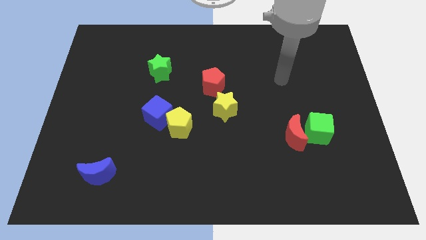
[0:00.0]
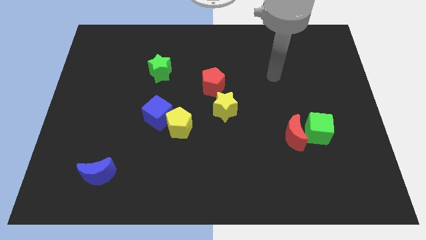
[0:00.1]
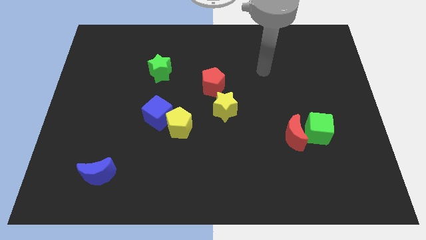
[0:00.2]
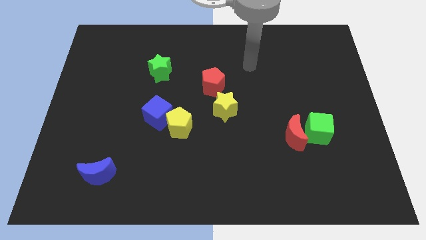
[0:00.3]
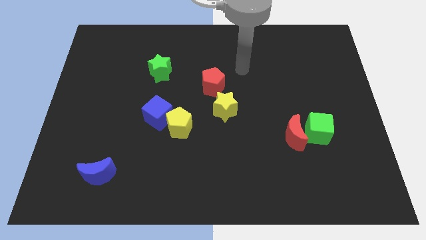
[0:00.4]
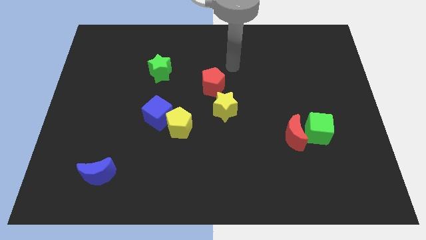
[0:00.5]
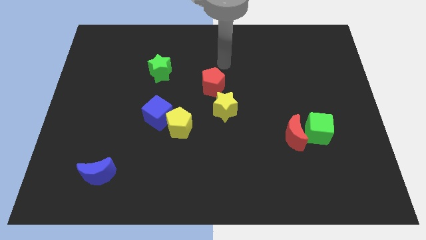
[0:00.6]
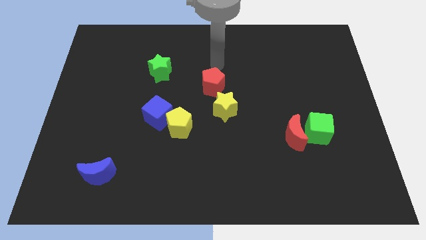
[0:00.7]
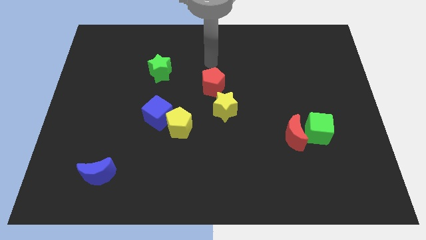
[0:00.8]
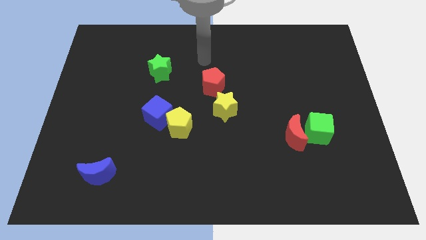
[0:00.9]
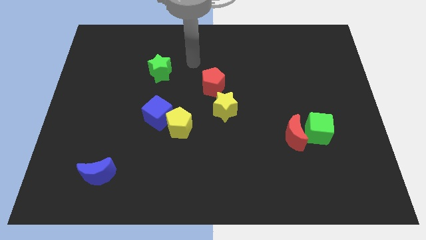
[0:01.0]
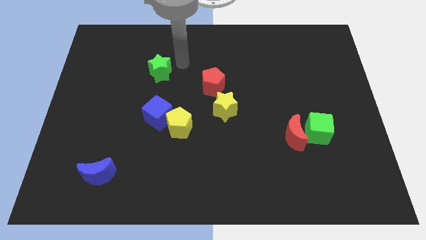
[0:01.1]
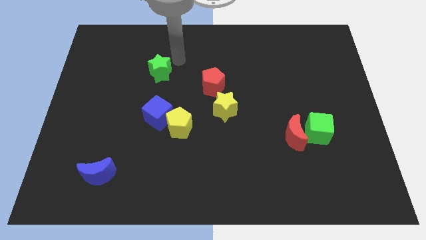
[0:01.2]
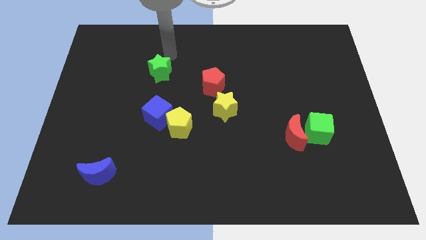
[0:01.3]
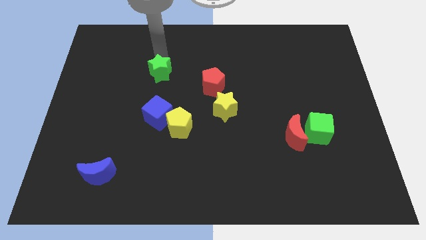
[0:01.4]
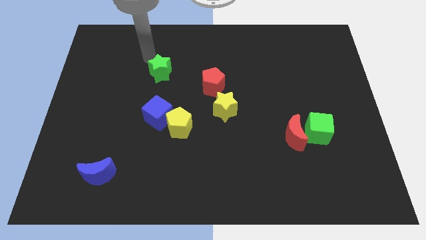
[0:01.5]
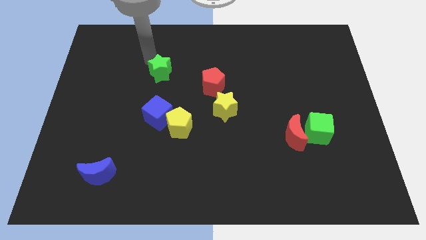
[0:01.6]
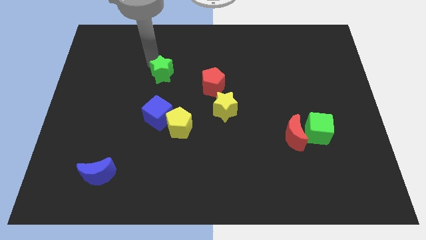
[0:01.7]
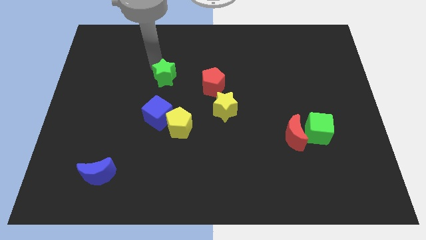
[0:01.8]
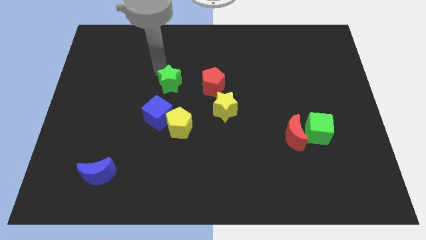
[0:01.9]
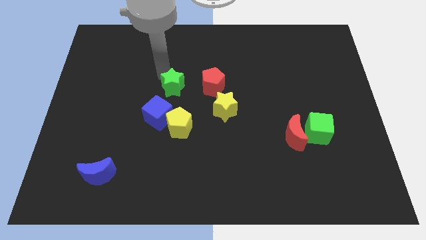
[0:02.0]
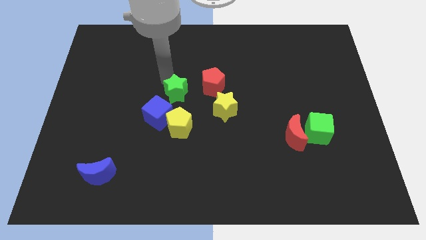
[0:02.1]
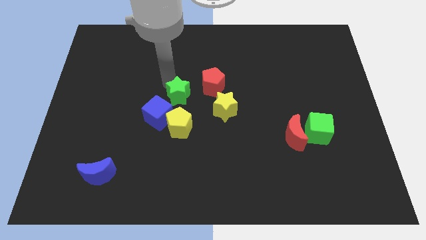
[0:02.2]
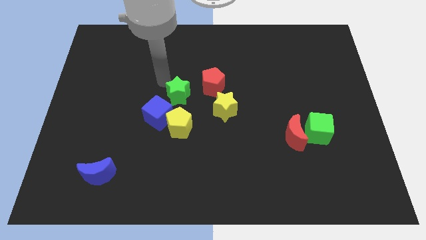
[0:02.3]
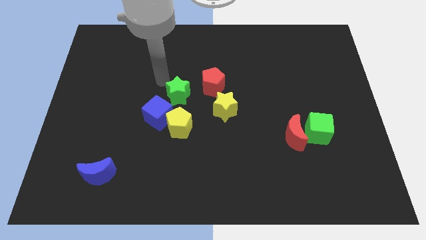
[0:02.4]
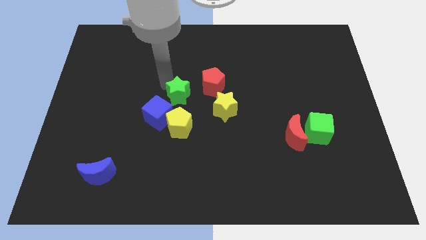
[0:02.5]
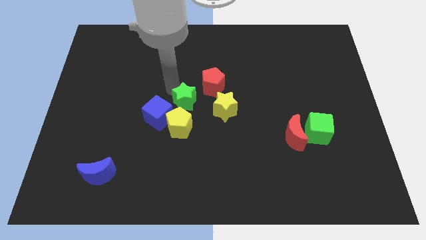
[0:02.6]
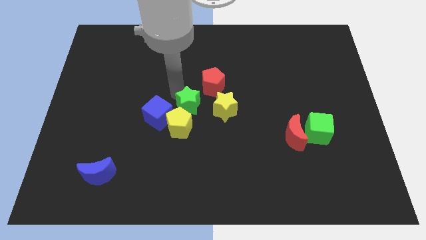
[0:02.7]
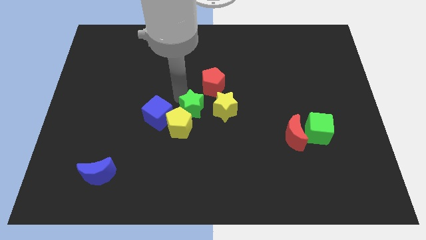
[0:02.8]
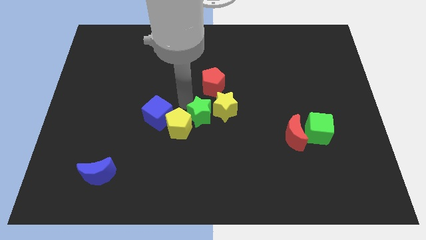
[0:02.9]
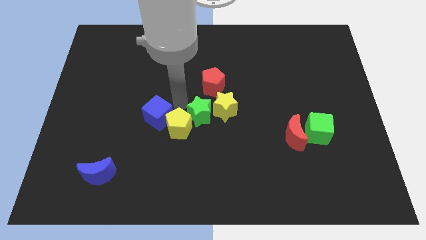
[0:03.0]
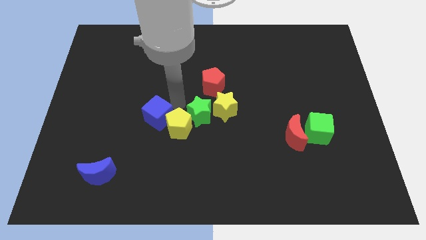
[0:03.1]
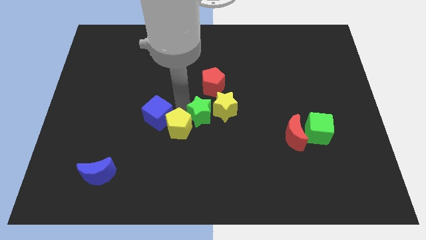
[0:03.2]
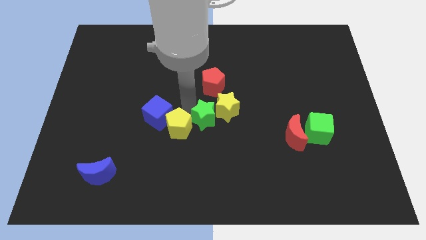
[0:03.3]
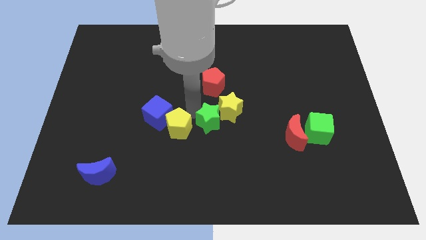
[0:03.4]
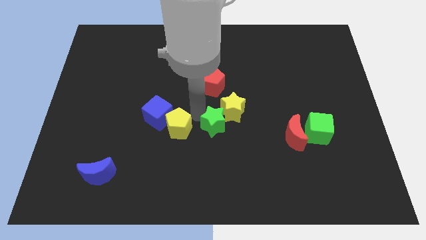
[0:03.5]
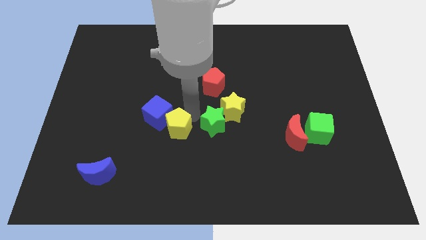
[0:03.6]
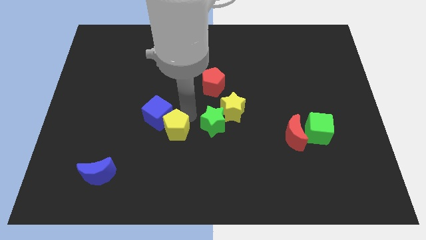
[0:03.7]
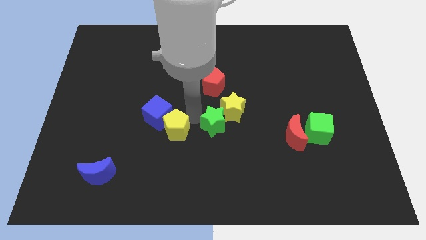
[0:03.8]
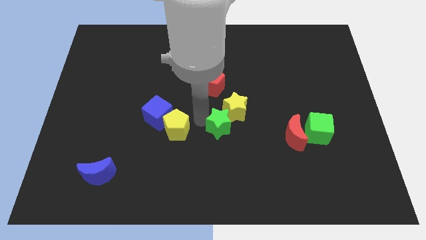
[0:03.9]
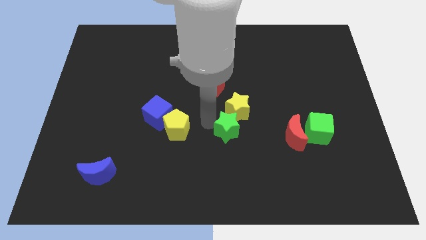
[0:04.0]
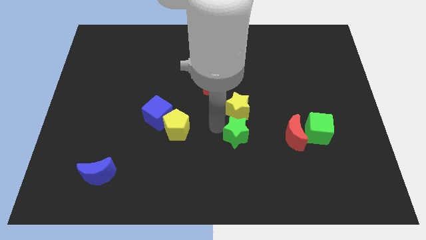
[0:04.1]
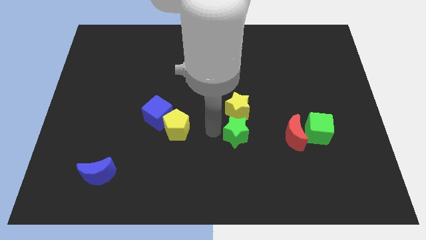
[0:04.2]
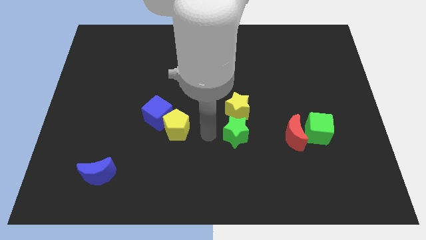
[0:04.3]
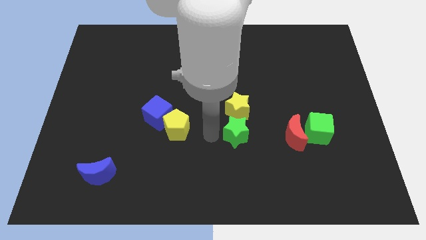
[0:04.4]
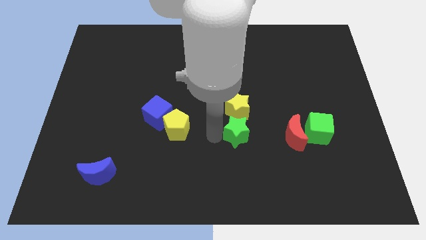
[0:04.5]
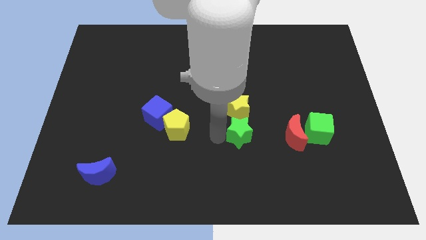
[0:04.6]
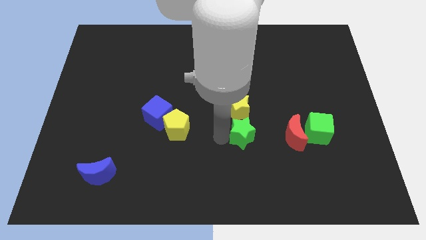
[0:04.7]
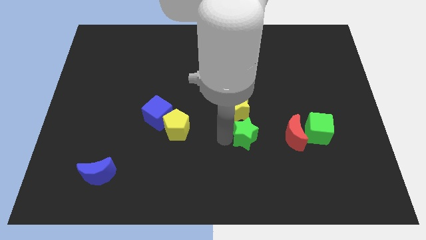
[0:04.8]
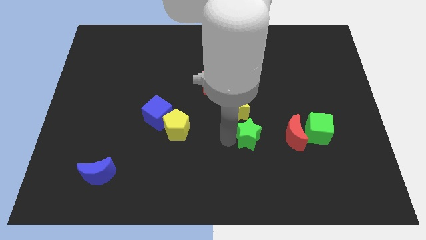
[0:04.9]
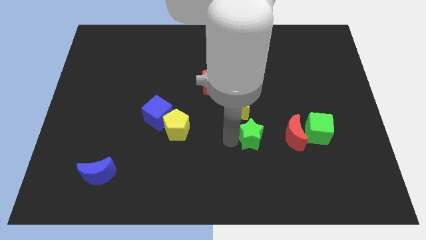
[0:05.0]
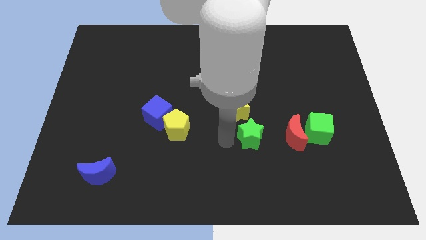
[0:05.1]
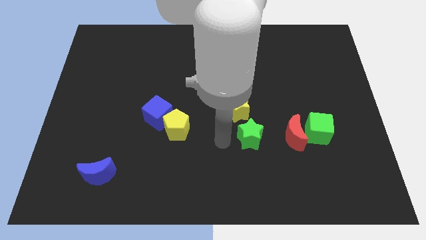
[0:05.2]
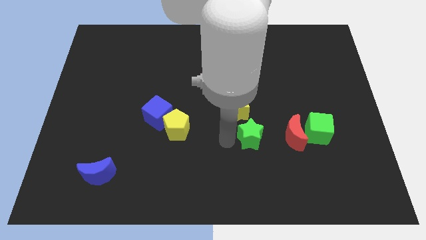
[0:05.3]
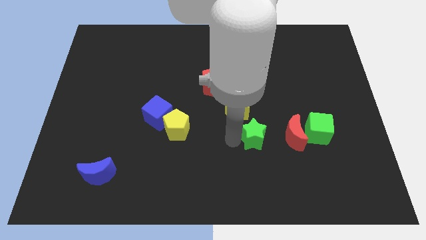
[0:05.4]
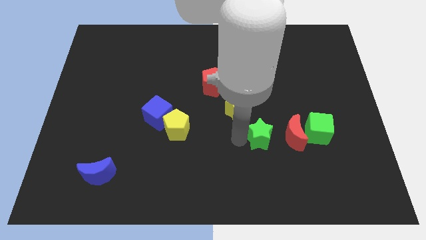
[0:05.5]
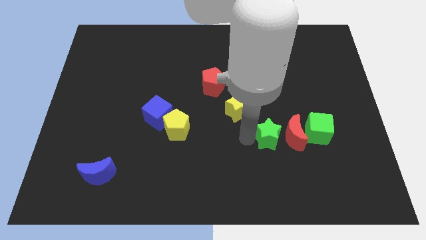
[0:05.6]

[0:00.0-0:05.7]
push the green star close to the red moon

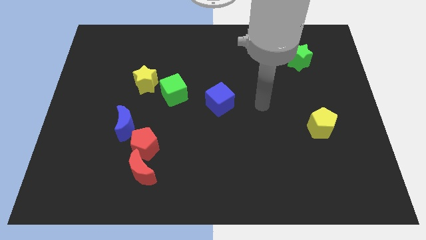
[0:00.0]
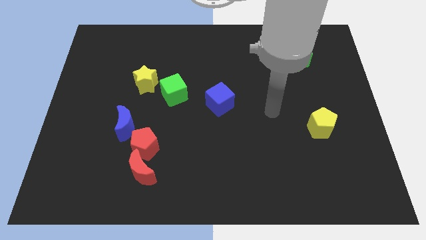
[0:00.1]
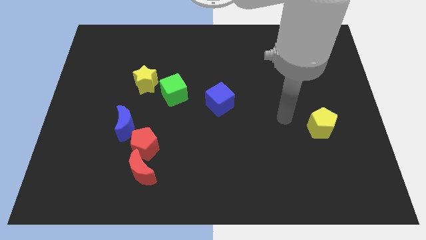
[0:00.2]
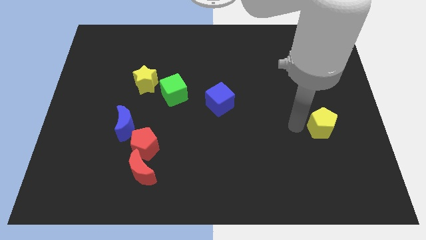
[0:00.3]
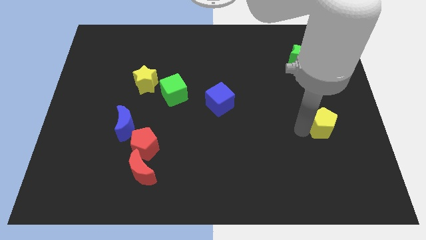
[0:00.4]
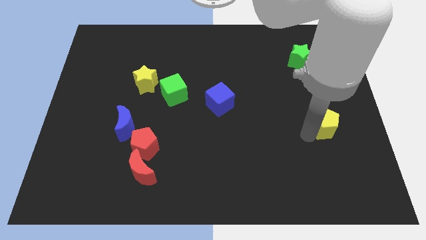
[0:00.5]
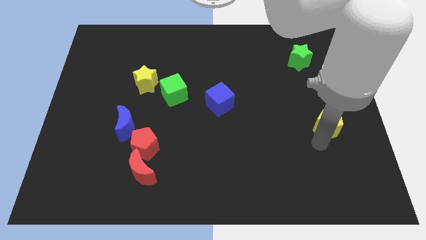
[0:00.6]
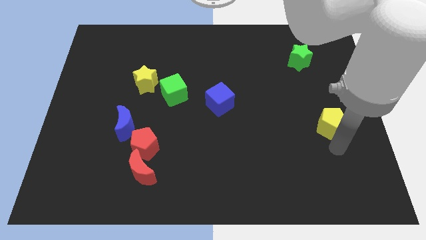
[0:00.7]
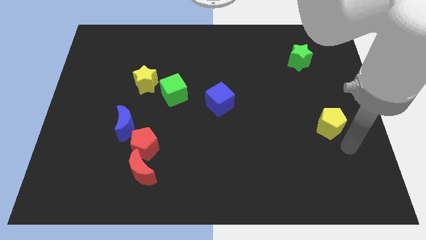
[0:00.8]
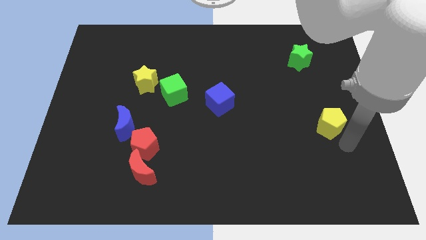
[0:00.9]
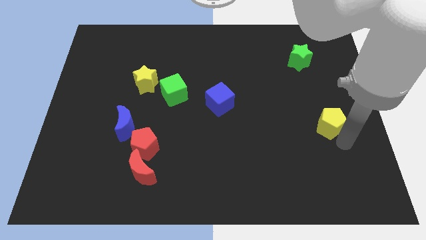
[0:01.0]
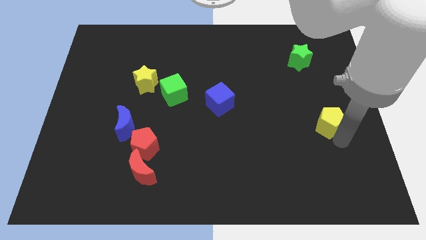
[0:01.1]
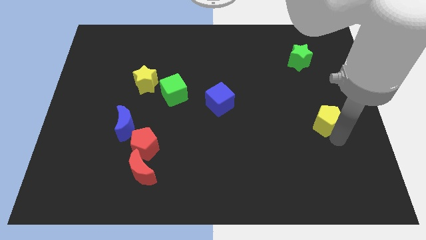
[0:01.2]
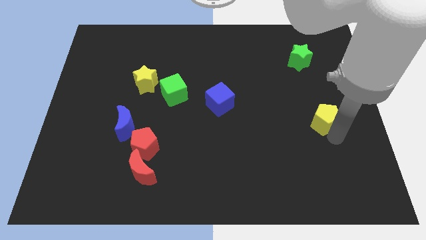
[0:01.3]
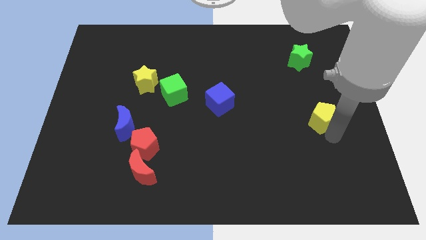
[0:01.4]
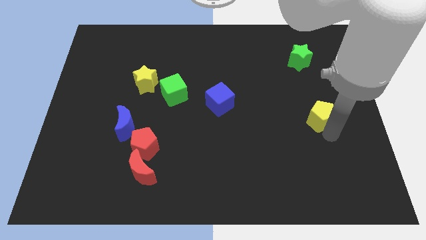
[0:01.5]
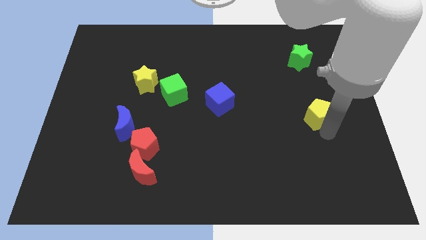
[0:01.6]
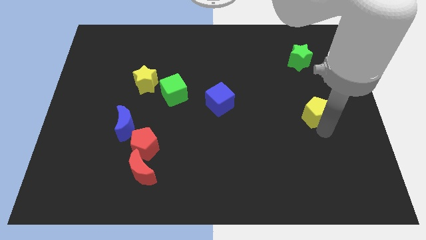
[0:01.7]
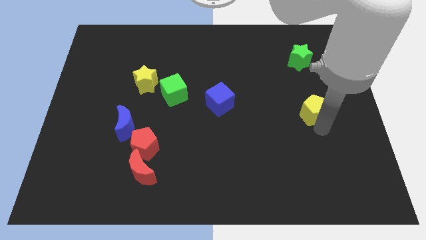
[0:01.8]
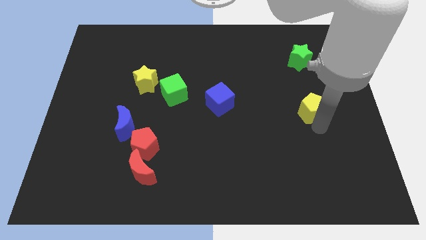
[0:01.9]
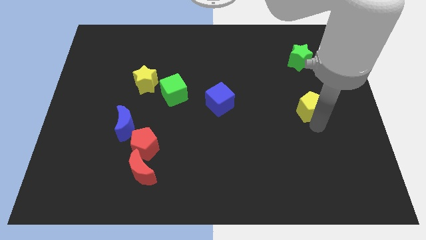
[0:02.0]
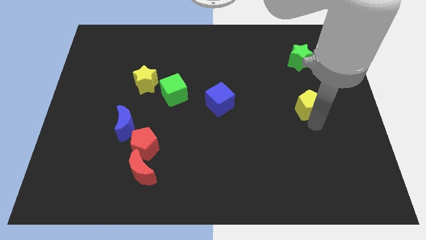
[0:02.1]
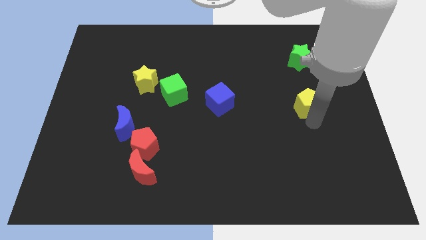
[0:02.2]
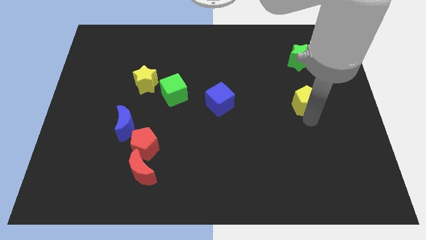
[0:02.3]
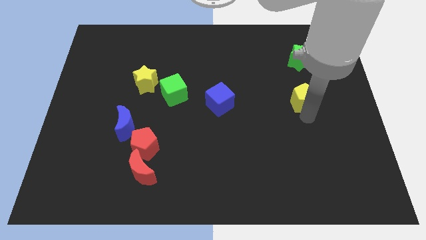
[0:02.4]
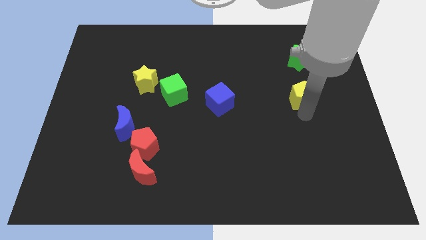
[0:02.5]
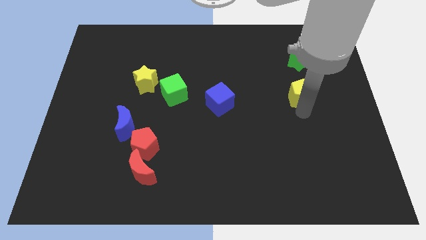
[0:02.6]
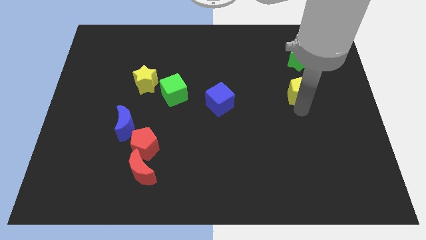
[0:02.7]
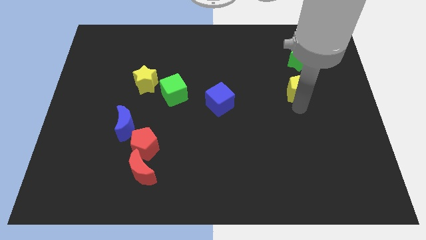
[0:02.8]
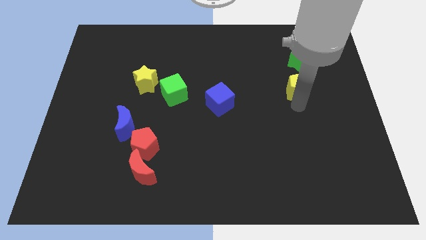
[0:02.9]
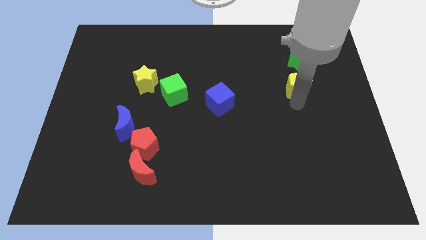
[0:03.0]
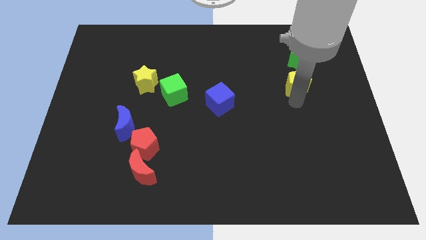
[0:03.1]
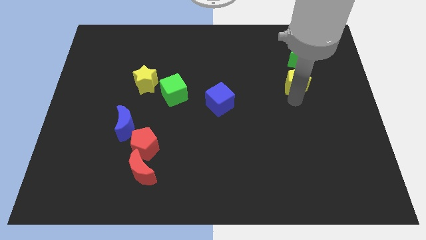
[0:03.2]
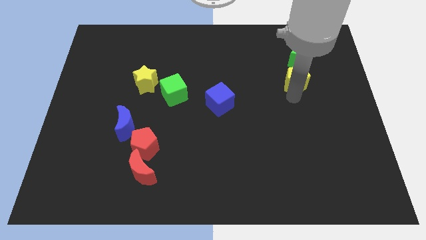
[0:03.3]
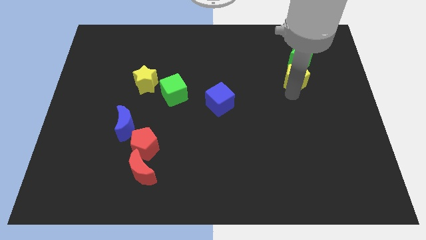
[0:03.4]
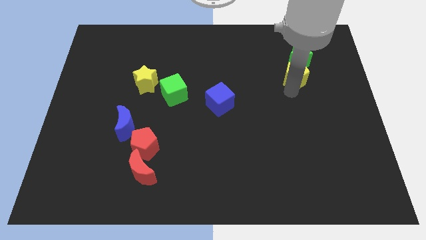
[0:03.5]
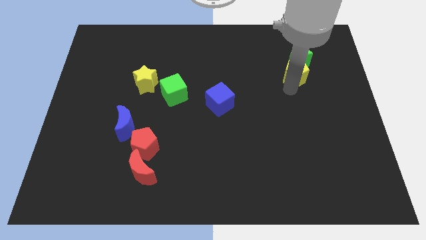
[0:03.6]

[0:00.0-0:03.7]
put the yellow pentagon towards the green star
